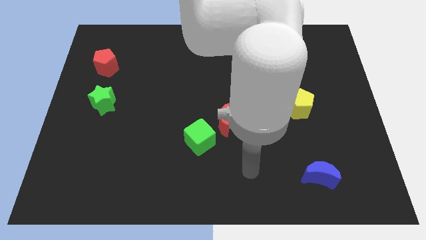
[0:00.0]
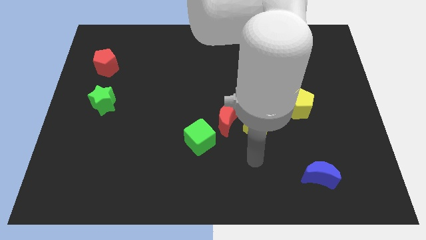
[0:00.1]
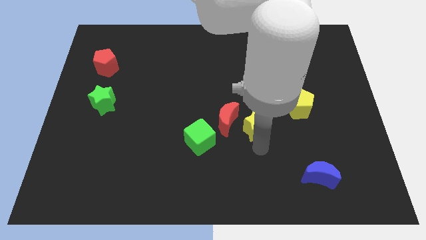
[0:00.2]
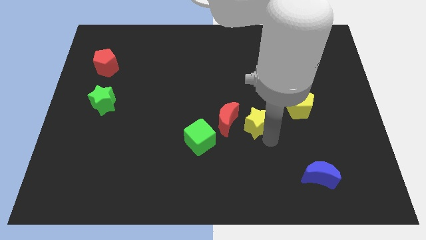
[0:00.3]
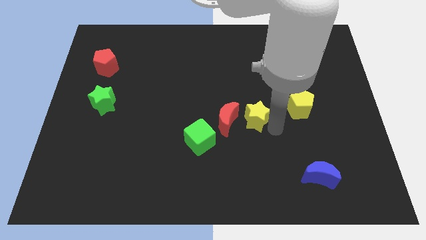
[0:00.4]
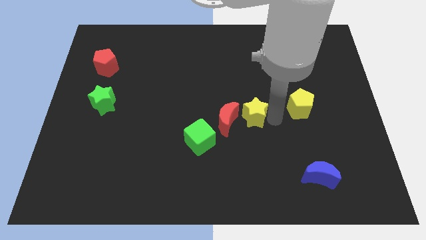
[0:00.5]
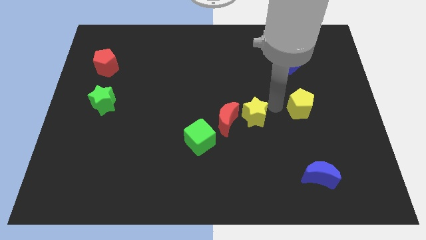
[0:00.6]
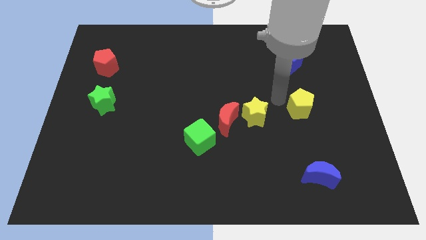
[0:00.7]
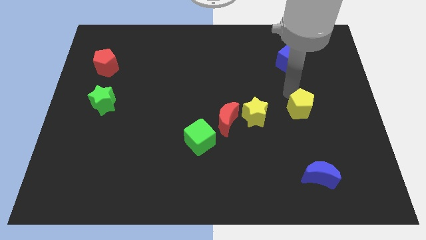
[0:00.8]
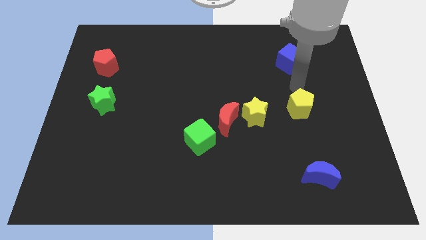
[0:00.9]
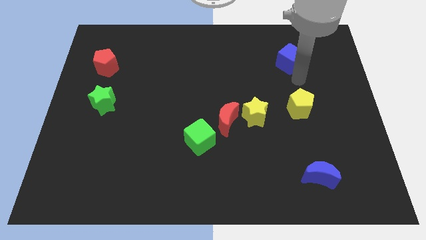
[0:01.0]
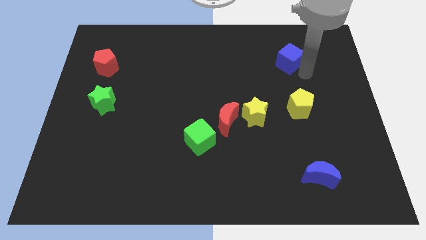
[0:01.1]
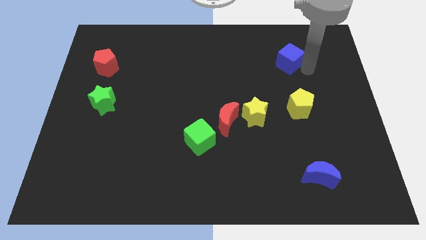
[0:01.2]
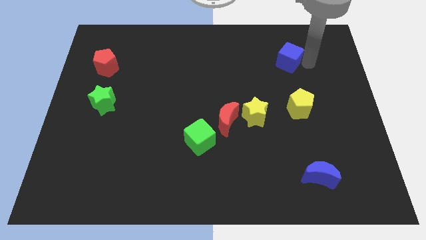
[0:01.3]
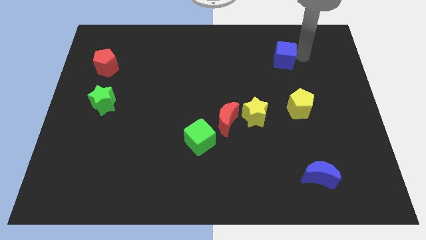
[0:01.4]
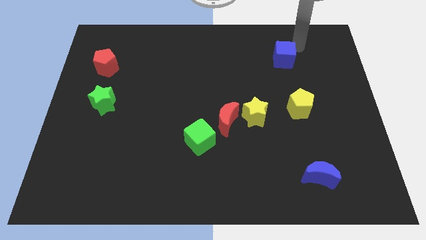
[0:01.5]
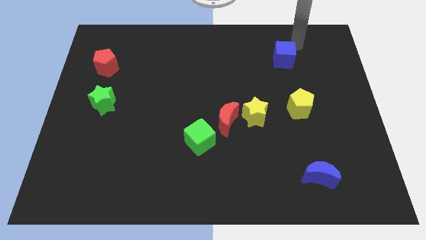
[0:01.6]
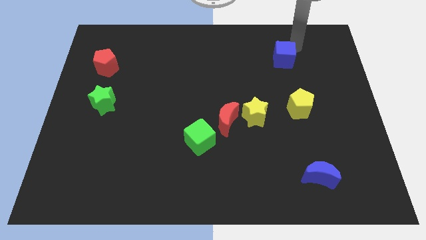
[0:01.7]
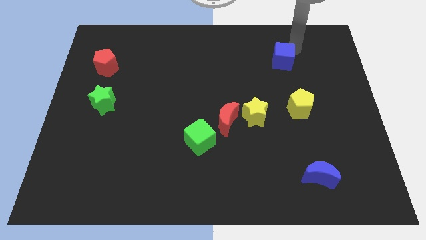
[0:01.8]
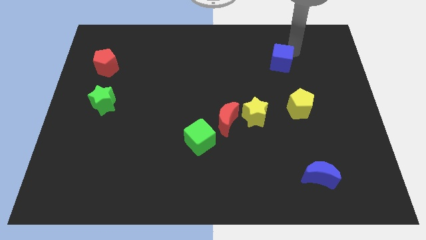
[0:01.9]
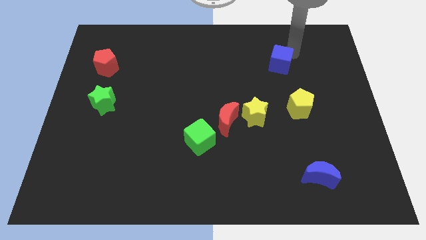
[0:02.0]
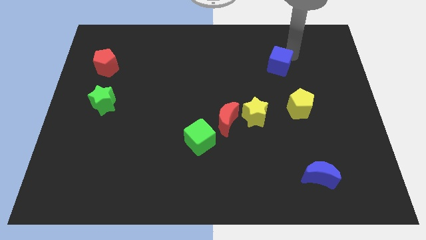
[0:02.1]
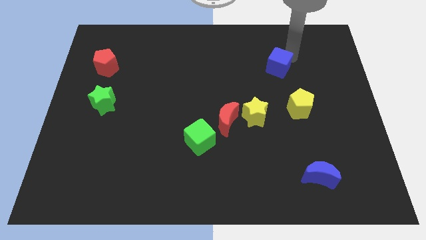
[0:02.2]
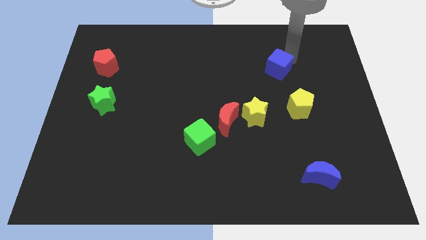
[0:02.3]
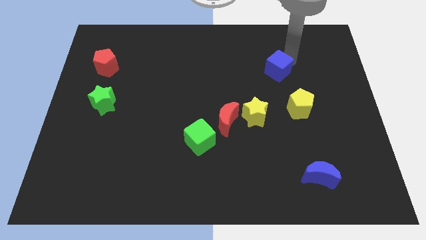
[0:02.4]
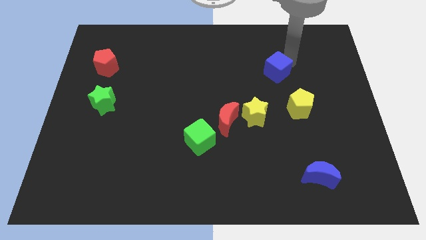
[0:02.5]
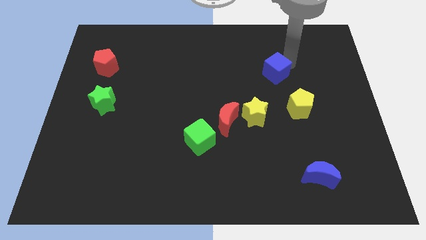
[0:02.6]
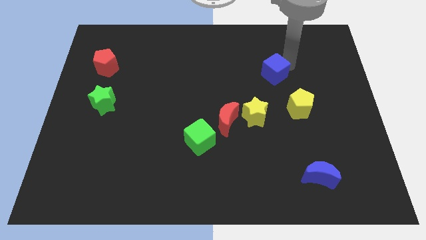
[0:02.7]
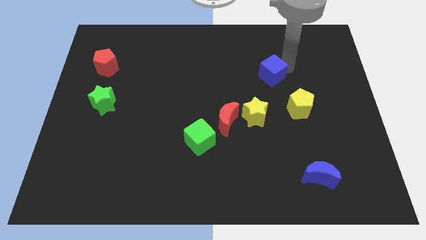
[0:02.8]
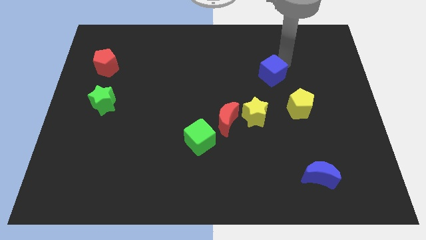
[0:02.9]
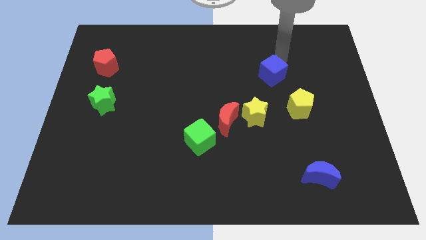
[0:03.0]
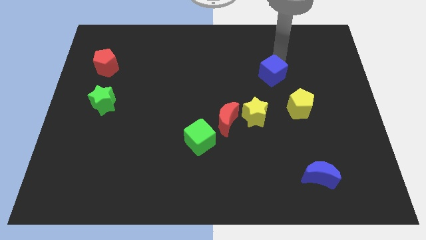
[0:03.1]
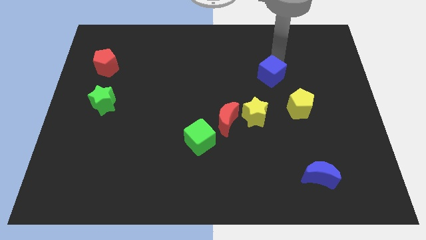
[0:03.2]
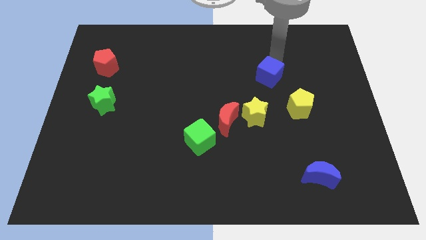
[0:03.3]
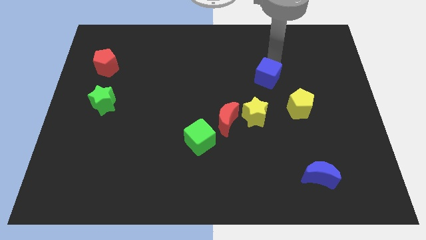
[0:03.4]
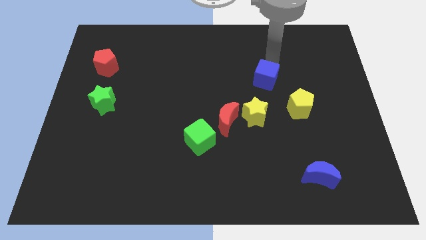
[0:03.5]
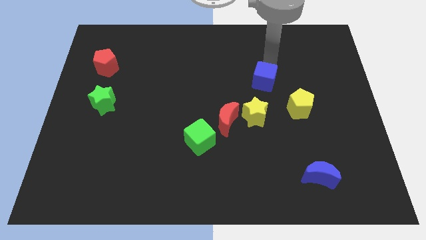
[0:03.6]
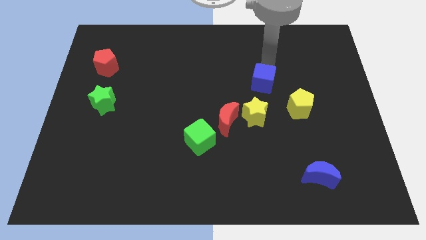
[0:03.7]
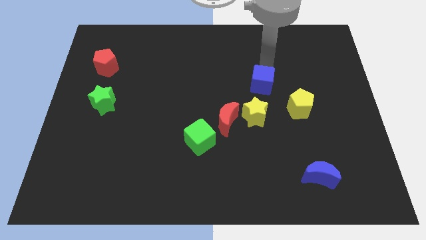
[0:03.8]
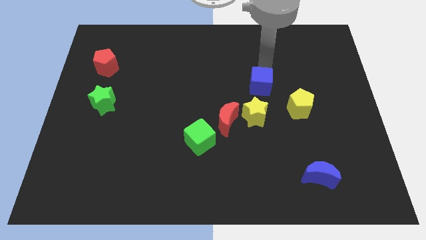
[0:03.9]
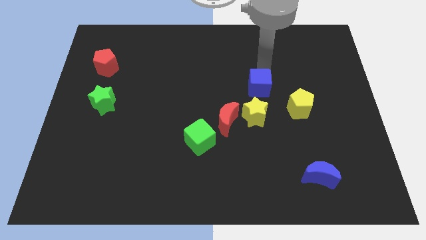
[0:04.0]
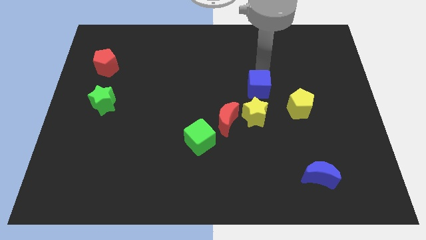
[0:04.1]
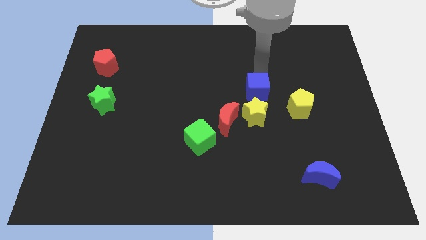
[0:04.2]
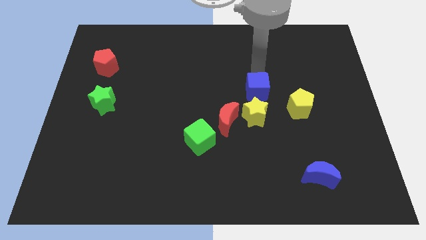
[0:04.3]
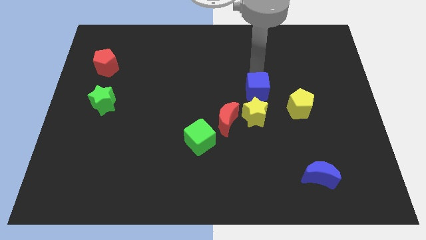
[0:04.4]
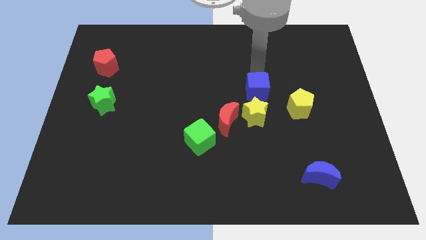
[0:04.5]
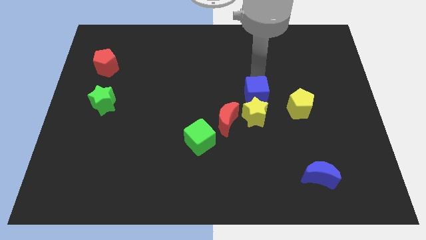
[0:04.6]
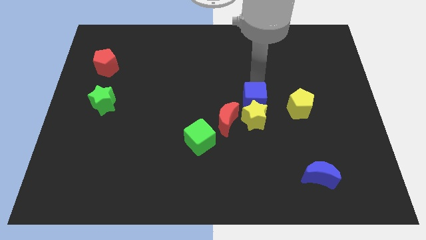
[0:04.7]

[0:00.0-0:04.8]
move the blue cube close to the yellow star

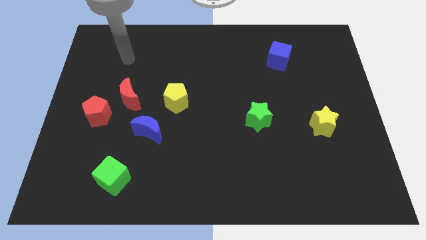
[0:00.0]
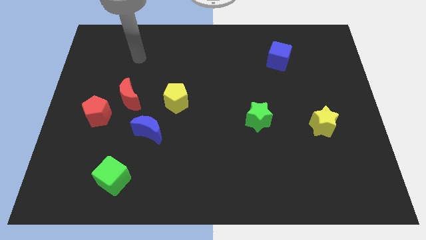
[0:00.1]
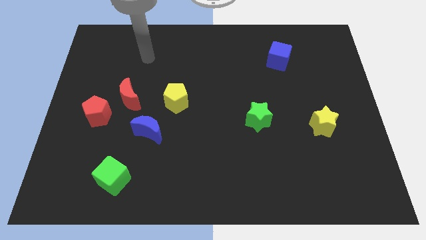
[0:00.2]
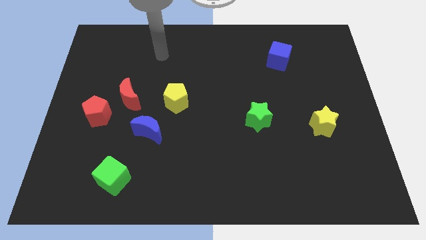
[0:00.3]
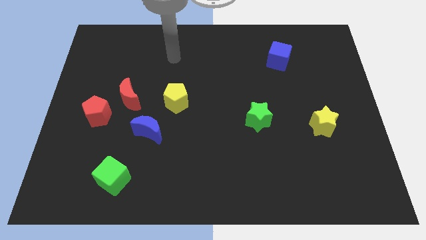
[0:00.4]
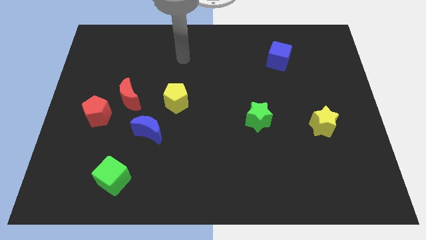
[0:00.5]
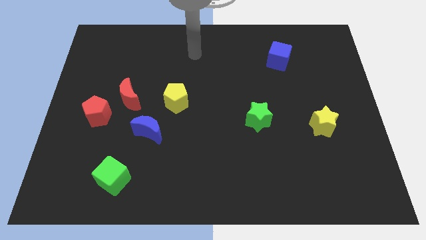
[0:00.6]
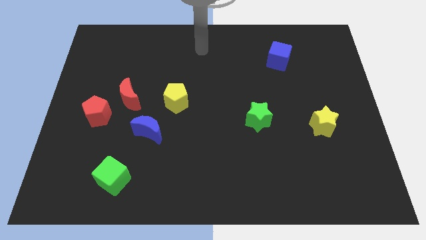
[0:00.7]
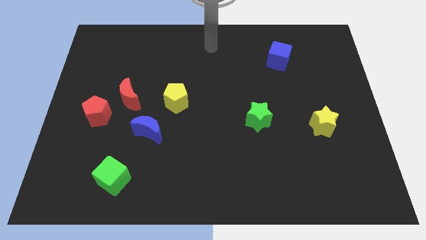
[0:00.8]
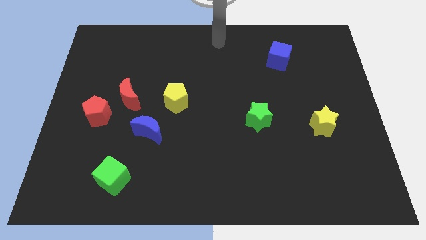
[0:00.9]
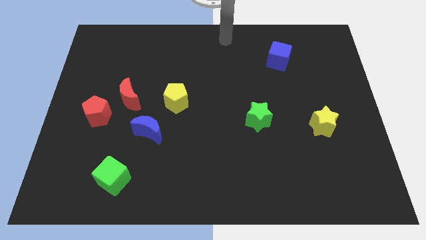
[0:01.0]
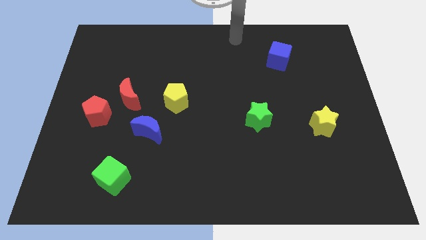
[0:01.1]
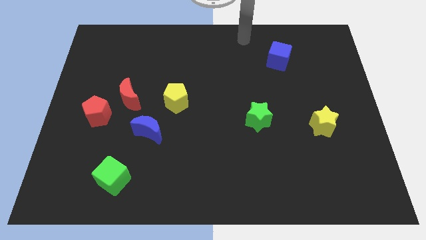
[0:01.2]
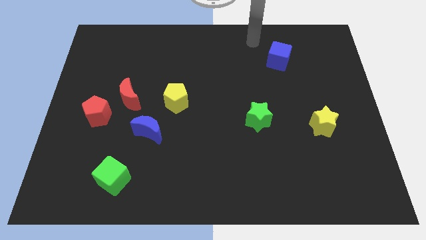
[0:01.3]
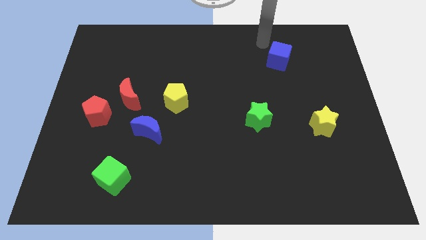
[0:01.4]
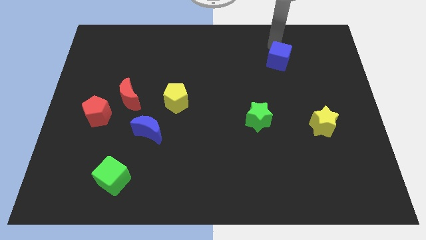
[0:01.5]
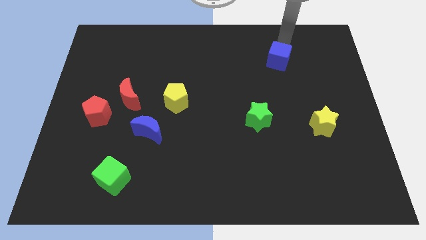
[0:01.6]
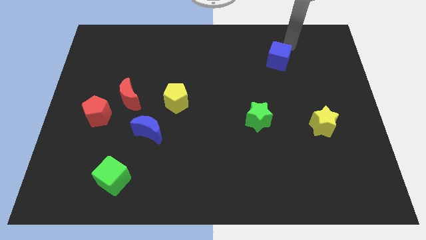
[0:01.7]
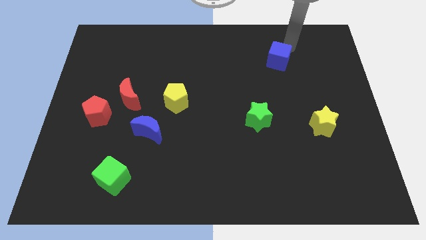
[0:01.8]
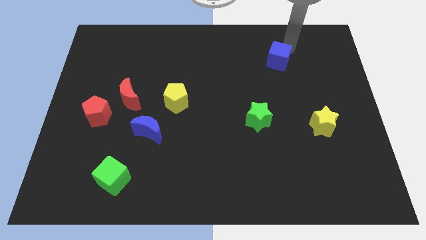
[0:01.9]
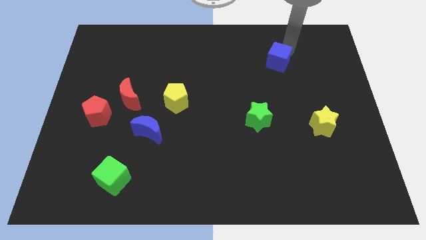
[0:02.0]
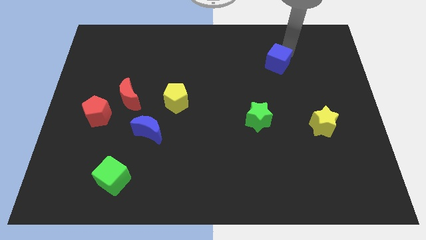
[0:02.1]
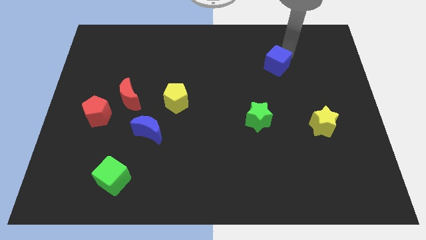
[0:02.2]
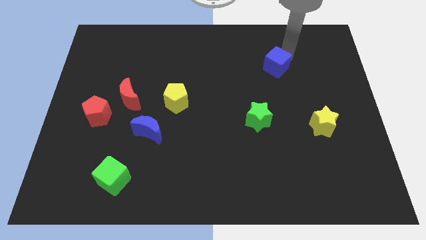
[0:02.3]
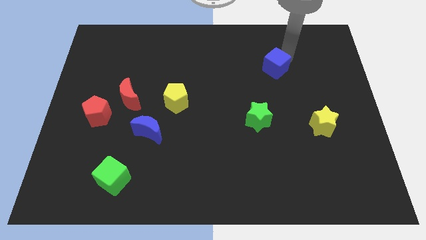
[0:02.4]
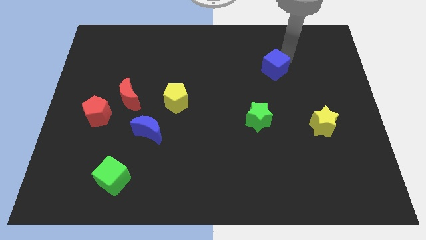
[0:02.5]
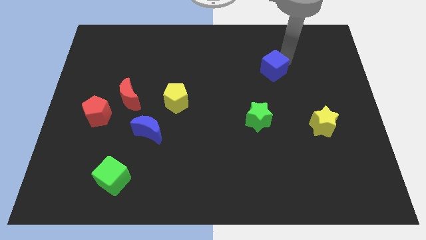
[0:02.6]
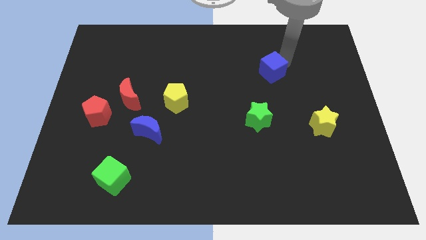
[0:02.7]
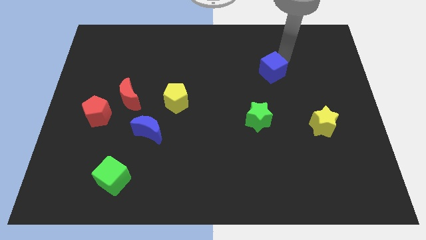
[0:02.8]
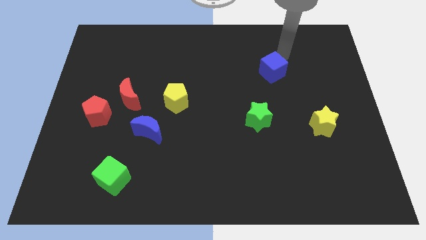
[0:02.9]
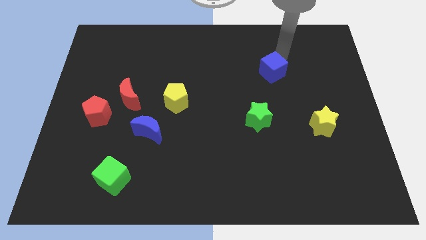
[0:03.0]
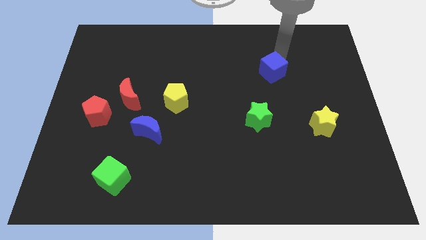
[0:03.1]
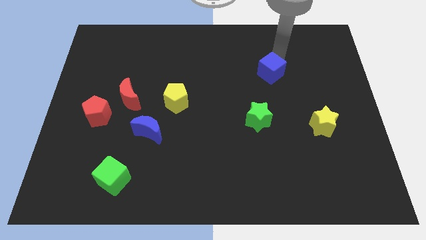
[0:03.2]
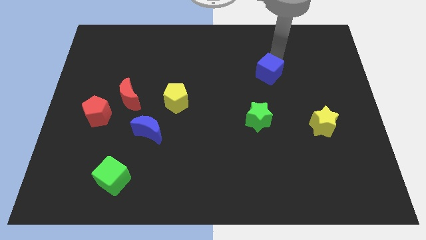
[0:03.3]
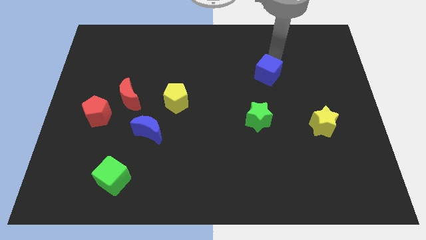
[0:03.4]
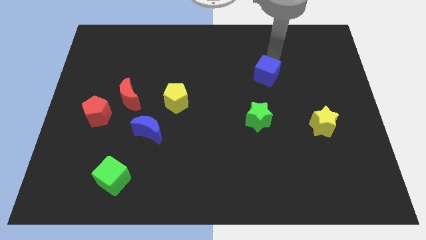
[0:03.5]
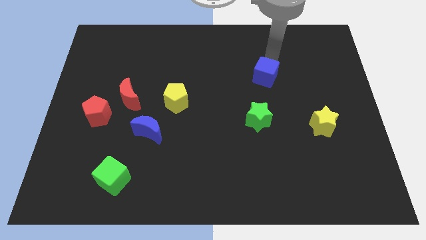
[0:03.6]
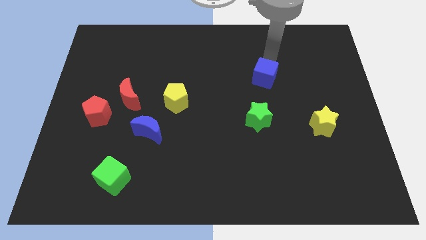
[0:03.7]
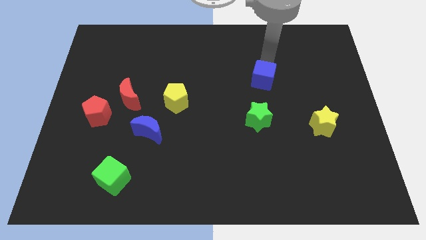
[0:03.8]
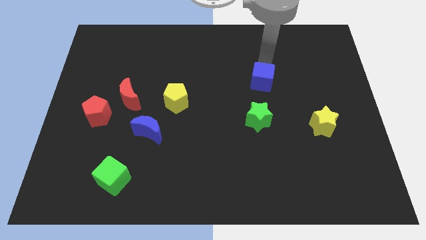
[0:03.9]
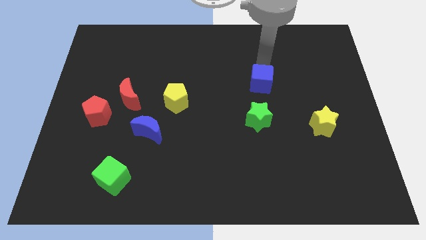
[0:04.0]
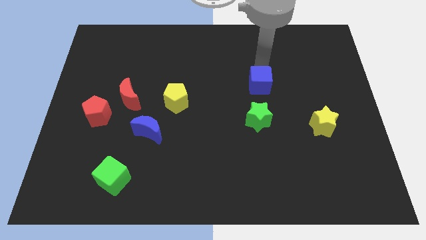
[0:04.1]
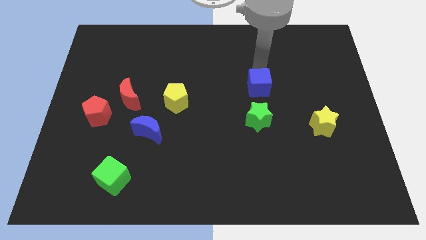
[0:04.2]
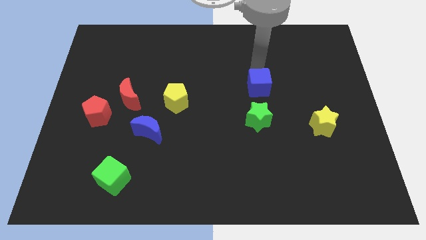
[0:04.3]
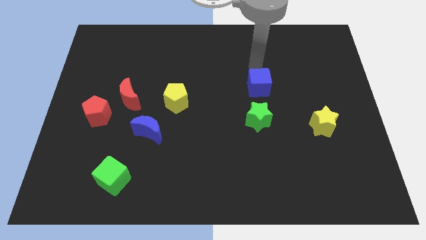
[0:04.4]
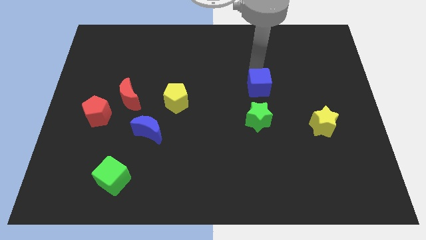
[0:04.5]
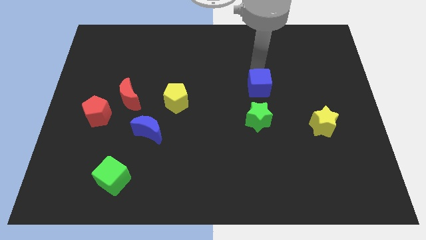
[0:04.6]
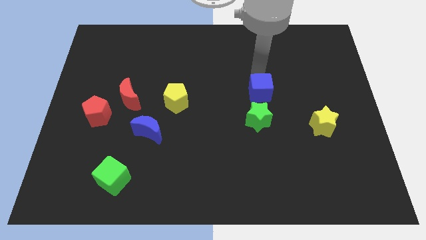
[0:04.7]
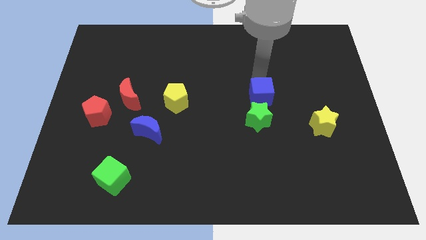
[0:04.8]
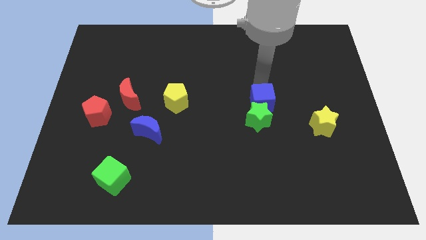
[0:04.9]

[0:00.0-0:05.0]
put the blue cube towards the green star
